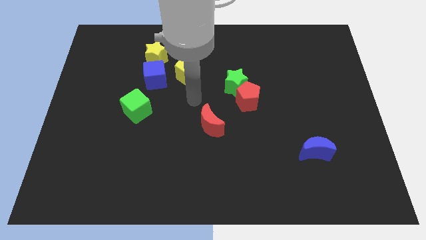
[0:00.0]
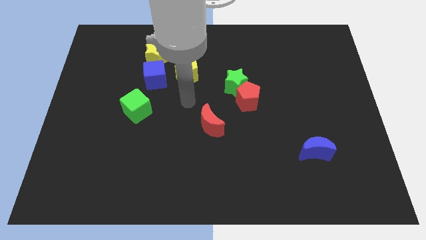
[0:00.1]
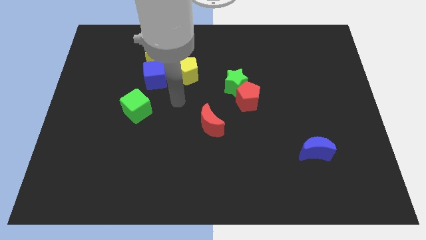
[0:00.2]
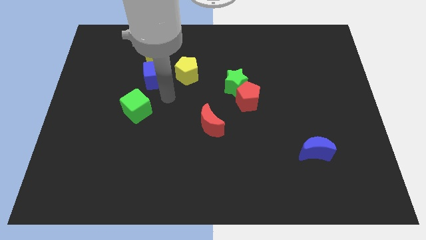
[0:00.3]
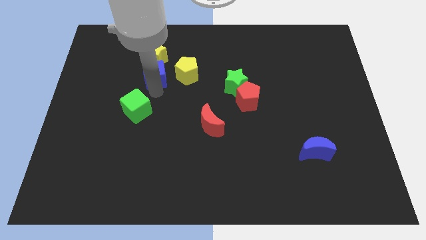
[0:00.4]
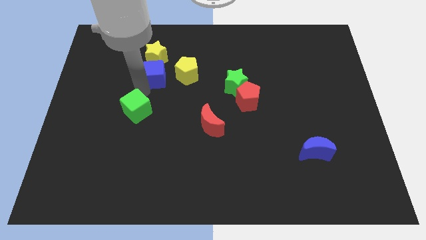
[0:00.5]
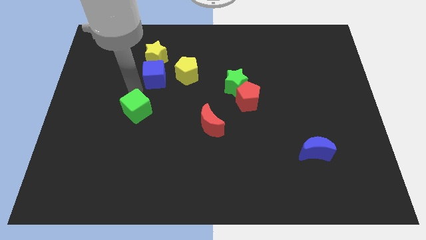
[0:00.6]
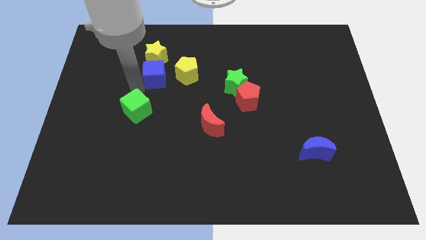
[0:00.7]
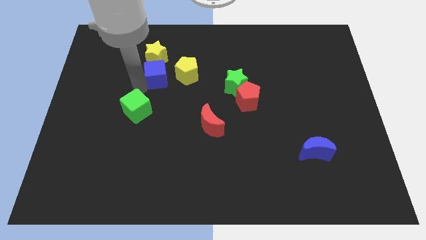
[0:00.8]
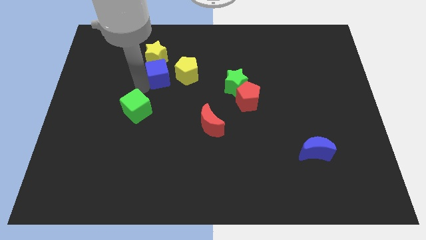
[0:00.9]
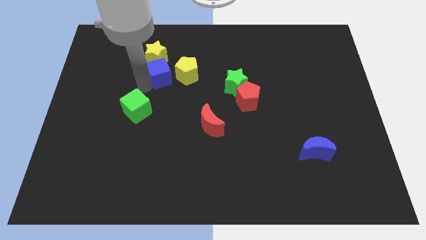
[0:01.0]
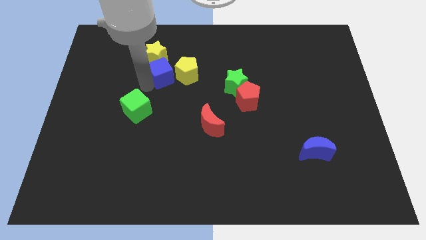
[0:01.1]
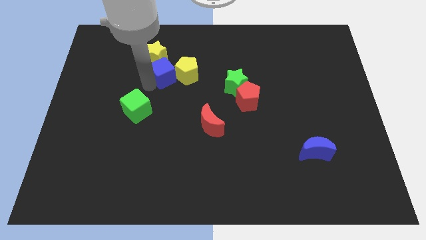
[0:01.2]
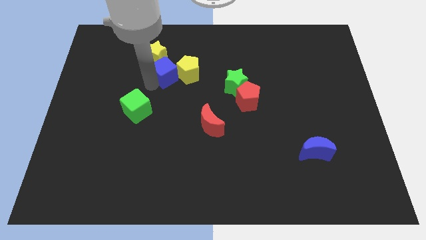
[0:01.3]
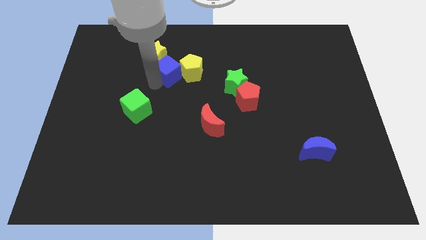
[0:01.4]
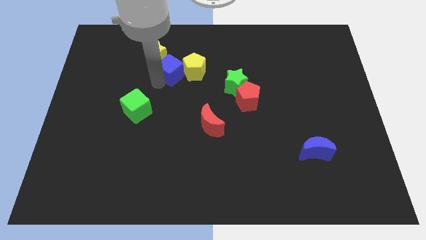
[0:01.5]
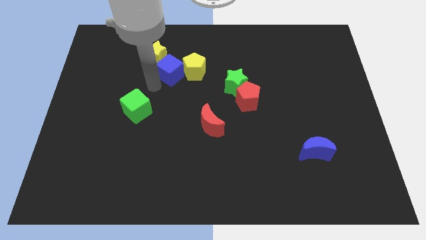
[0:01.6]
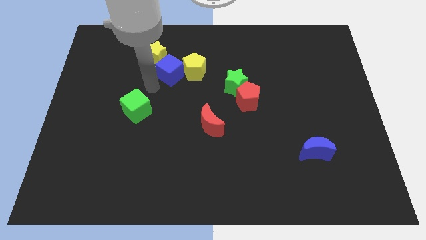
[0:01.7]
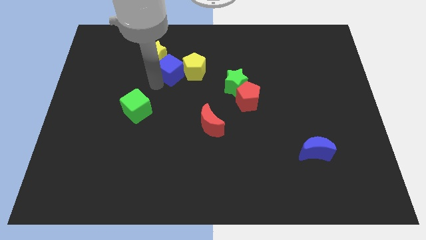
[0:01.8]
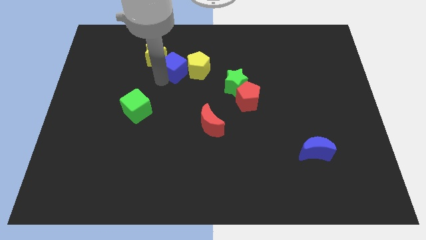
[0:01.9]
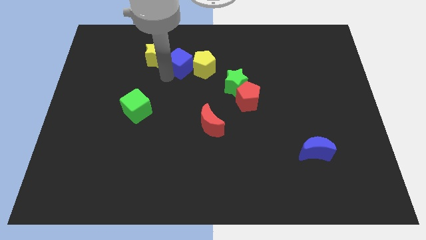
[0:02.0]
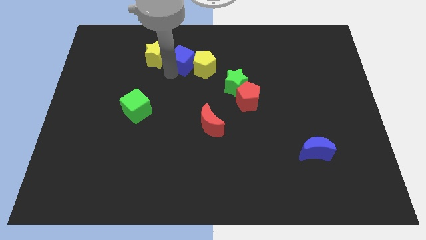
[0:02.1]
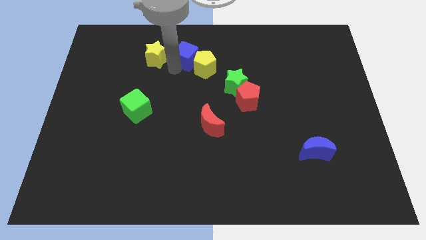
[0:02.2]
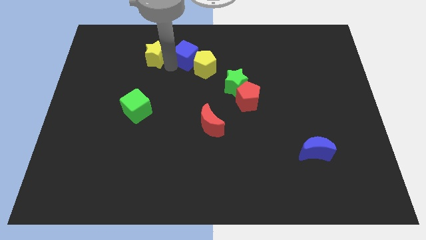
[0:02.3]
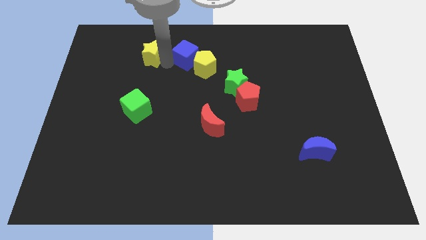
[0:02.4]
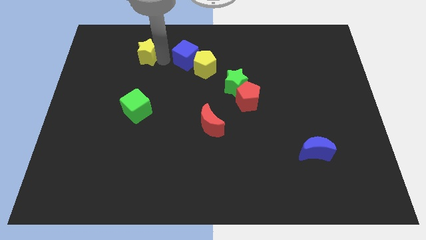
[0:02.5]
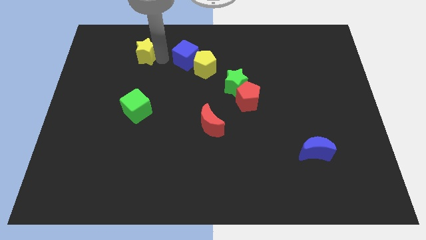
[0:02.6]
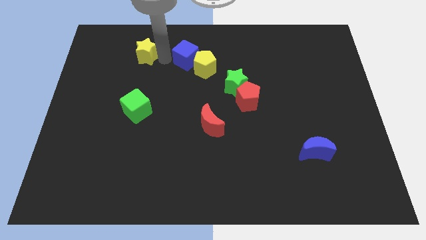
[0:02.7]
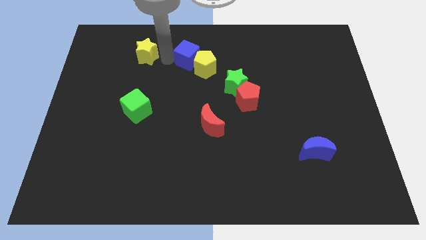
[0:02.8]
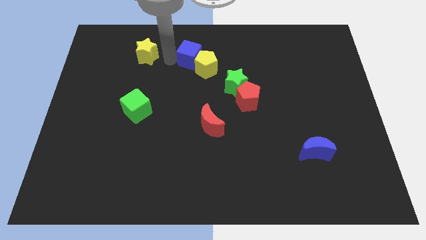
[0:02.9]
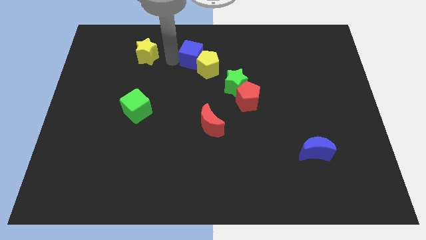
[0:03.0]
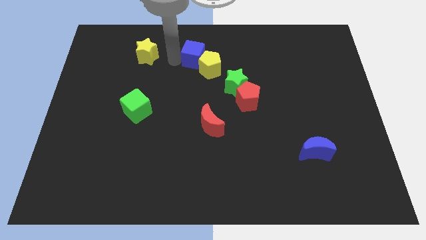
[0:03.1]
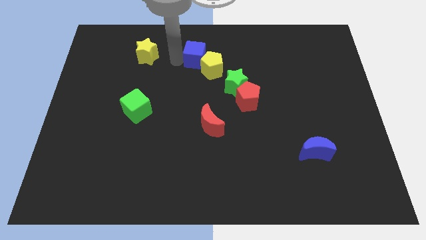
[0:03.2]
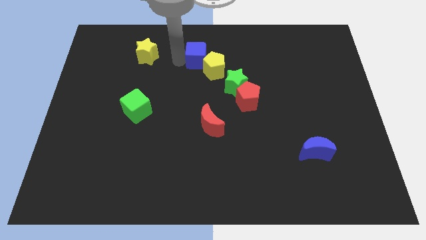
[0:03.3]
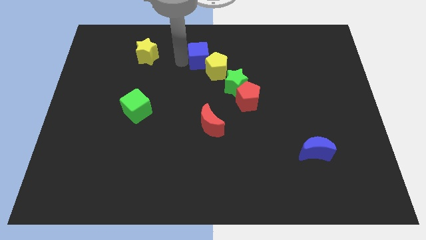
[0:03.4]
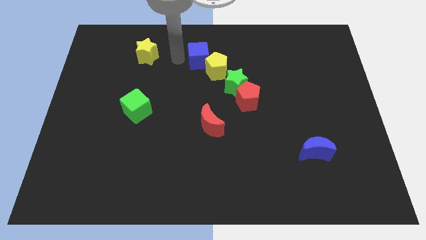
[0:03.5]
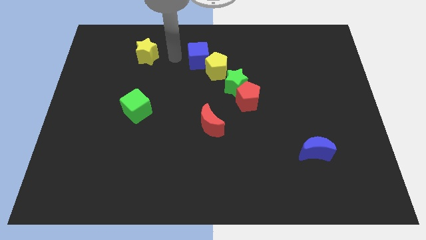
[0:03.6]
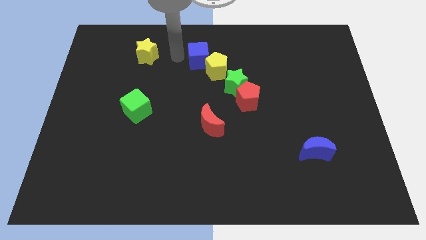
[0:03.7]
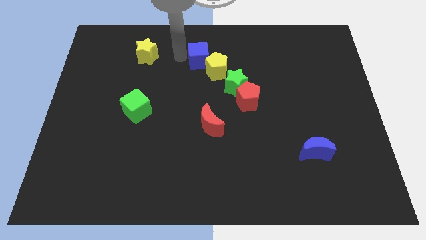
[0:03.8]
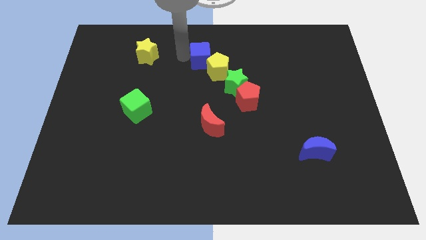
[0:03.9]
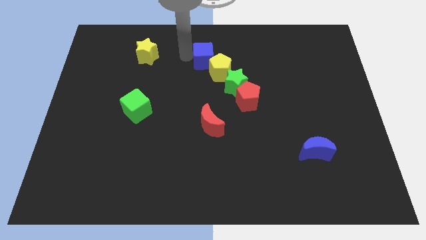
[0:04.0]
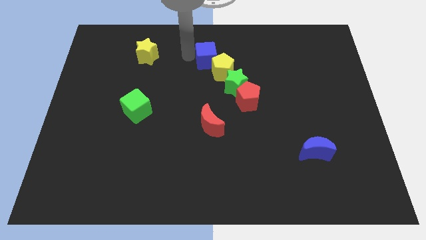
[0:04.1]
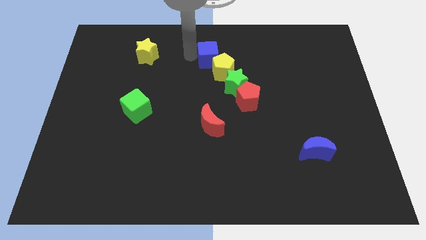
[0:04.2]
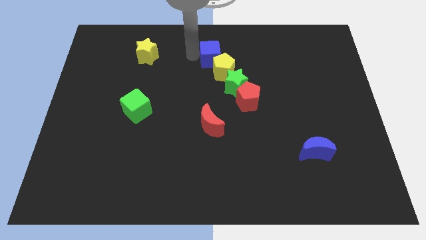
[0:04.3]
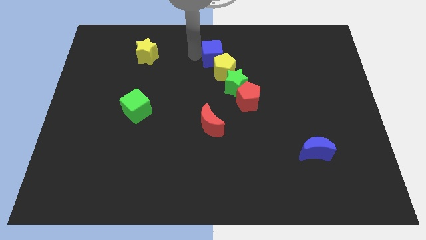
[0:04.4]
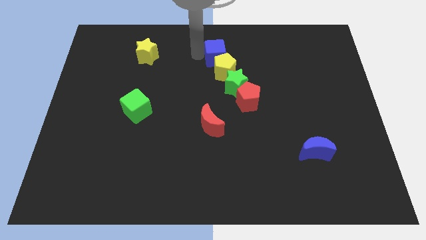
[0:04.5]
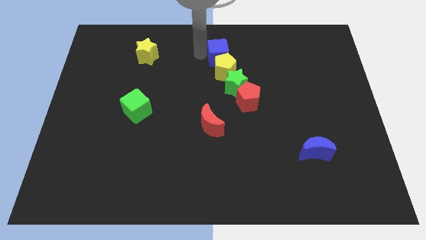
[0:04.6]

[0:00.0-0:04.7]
slide the blue cube to the top of the green star

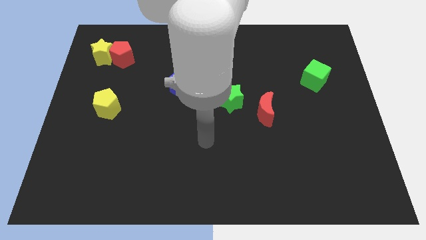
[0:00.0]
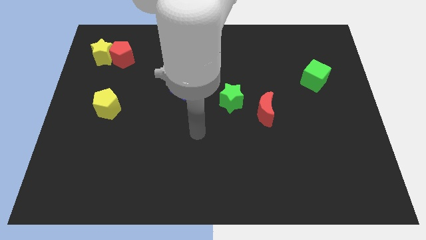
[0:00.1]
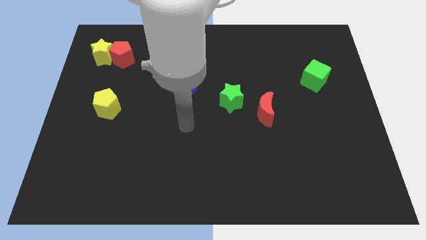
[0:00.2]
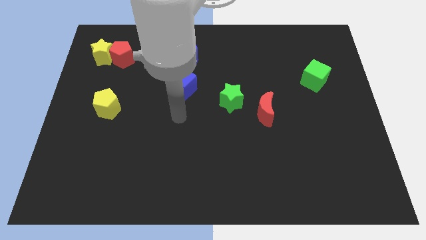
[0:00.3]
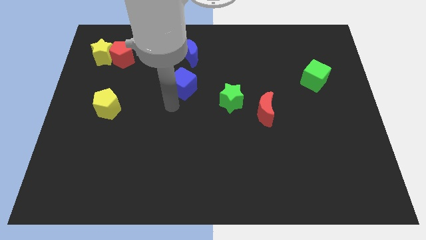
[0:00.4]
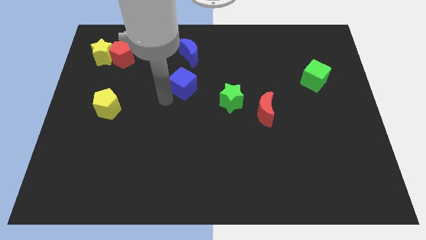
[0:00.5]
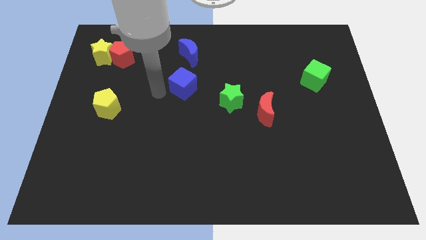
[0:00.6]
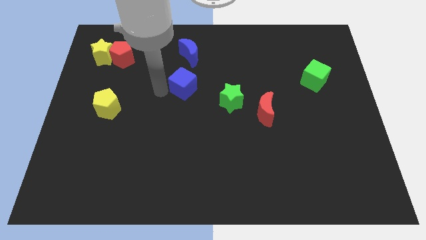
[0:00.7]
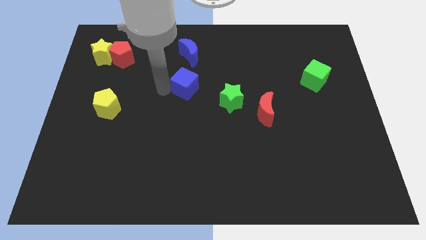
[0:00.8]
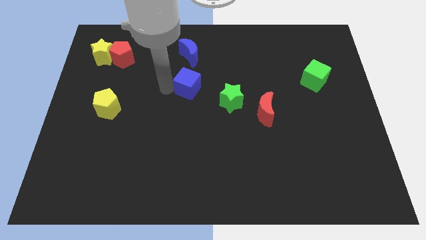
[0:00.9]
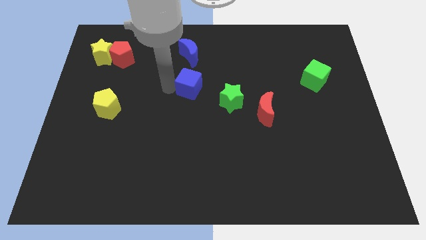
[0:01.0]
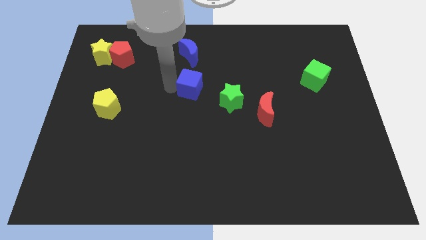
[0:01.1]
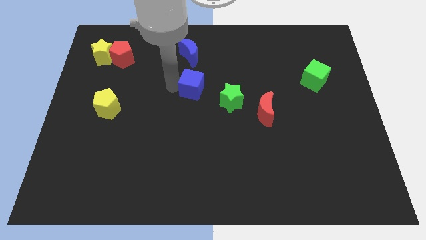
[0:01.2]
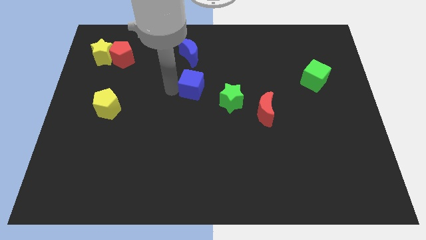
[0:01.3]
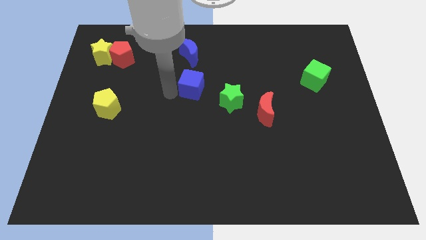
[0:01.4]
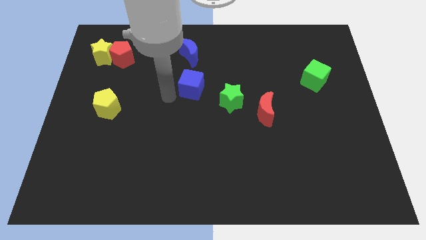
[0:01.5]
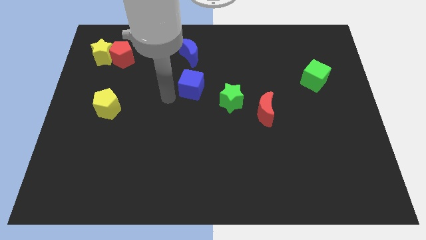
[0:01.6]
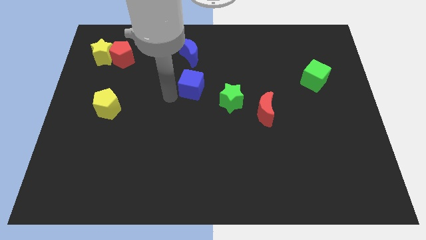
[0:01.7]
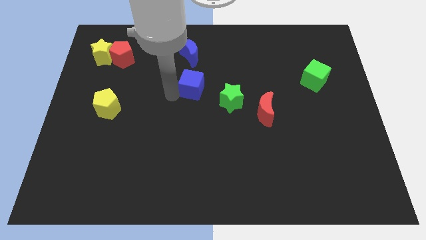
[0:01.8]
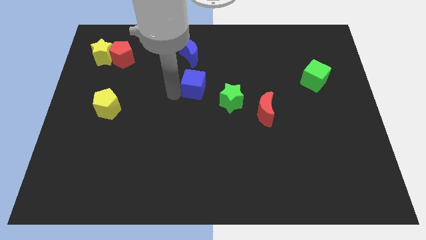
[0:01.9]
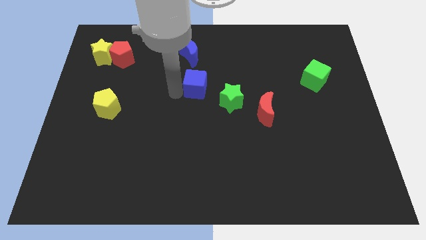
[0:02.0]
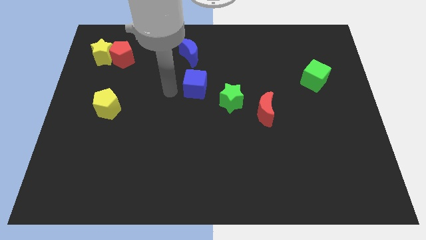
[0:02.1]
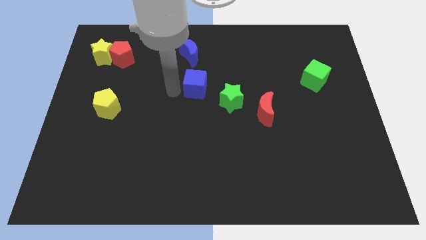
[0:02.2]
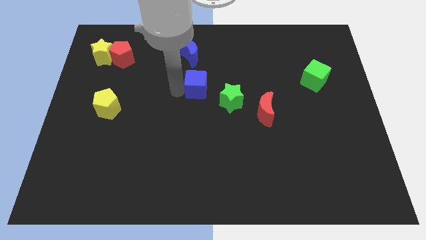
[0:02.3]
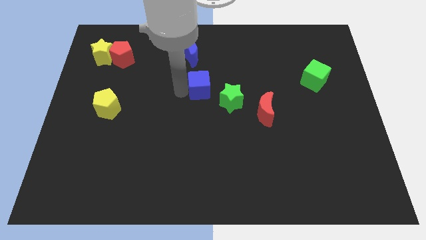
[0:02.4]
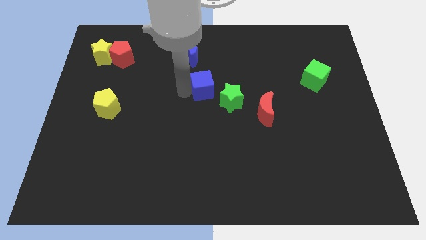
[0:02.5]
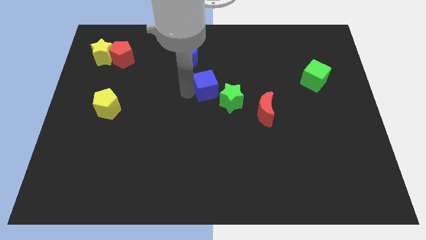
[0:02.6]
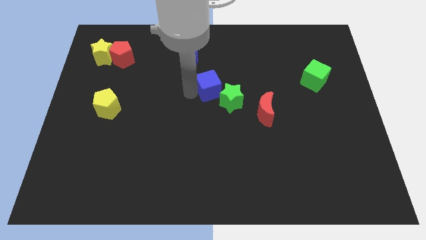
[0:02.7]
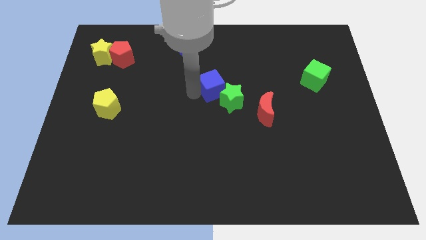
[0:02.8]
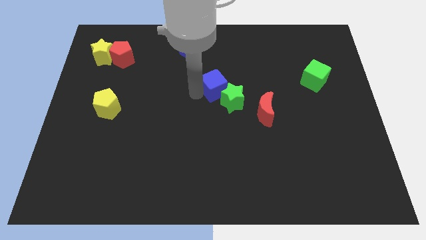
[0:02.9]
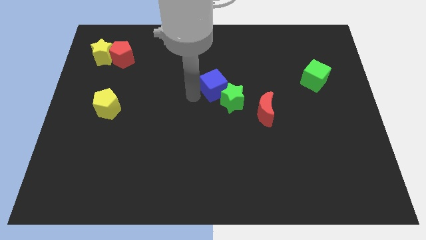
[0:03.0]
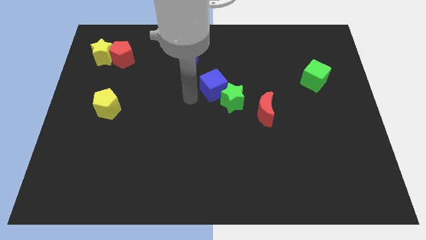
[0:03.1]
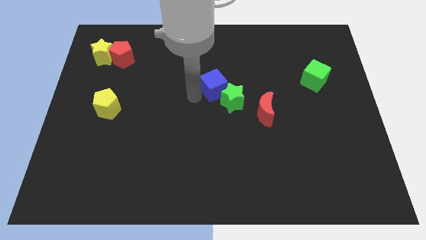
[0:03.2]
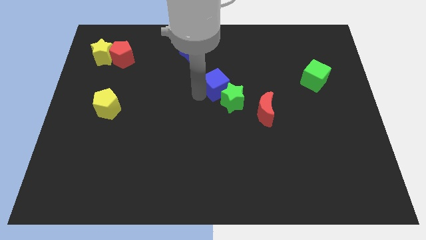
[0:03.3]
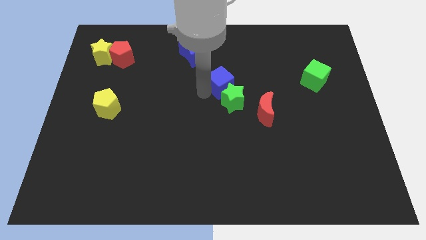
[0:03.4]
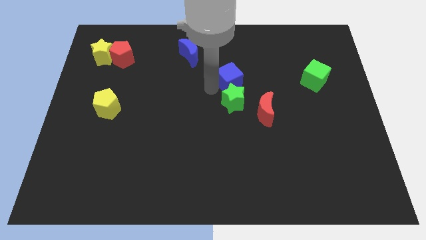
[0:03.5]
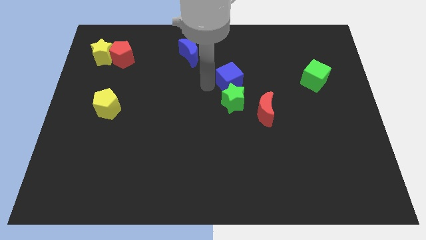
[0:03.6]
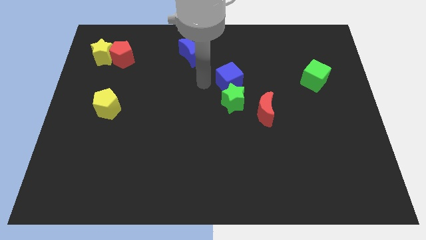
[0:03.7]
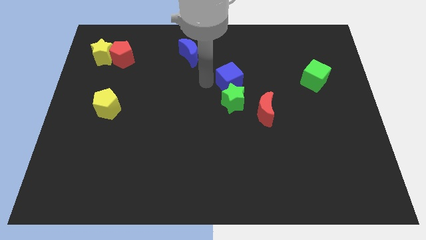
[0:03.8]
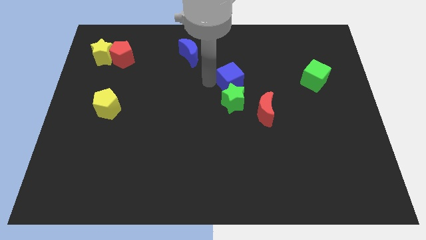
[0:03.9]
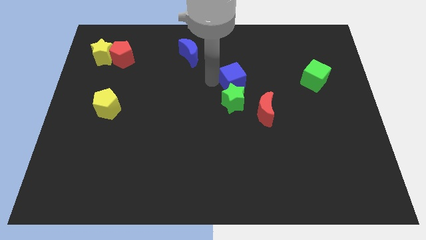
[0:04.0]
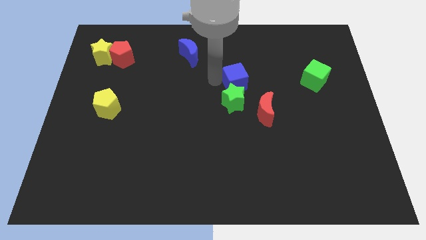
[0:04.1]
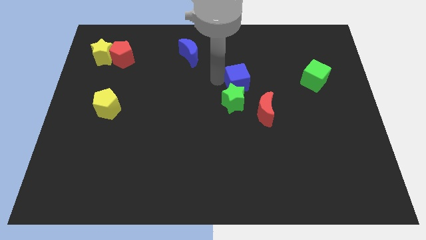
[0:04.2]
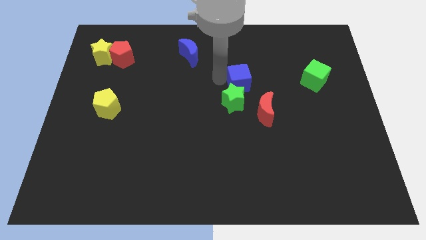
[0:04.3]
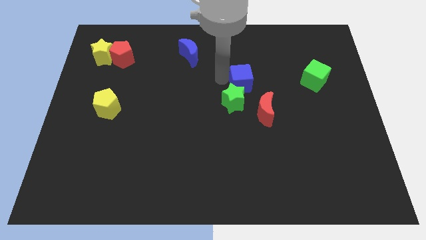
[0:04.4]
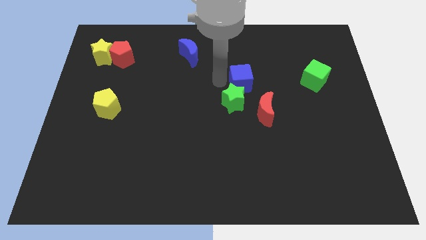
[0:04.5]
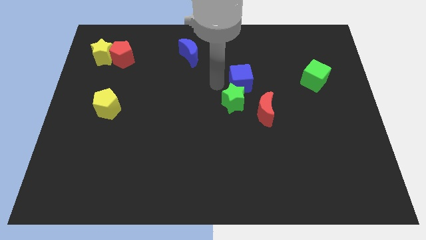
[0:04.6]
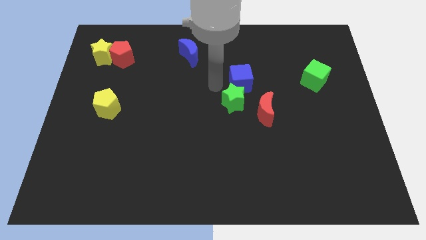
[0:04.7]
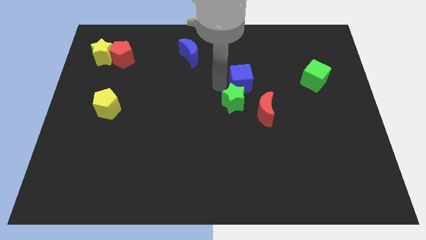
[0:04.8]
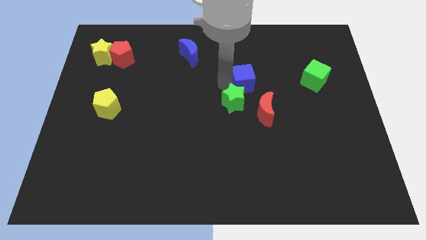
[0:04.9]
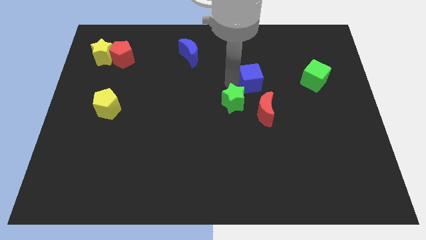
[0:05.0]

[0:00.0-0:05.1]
push the blue cube to the left of the green cube
